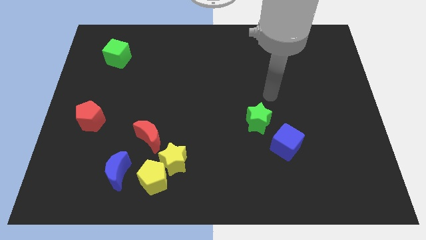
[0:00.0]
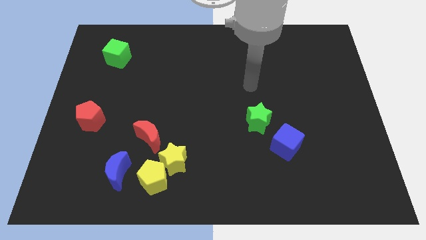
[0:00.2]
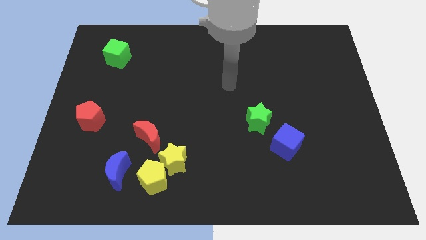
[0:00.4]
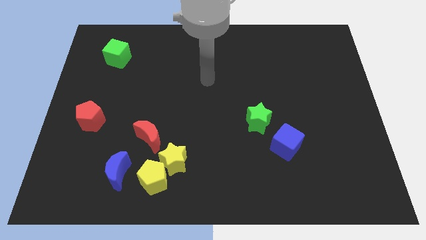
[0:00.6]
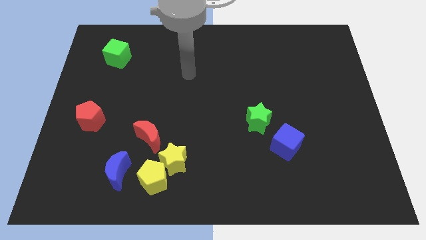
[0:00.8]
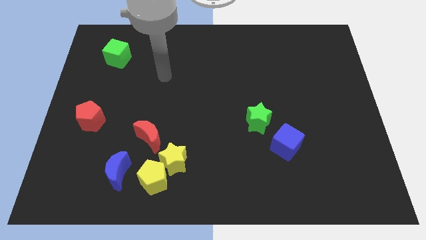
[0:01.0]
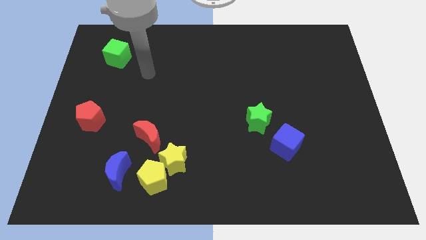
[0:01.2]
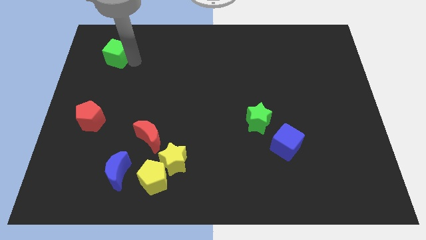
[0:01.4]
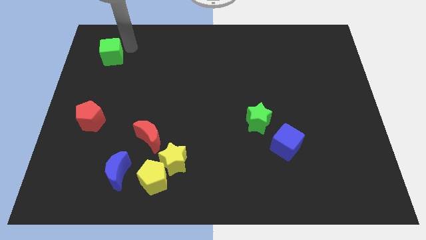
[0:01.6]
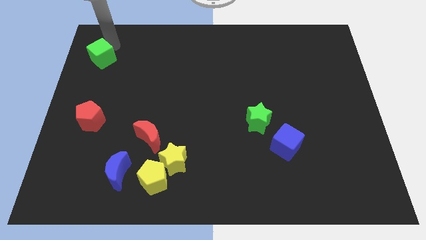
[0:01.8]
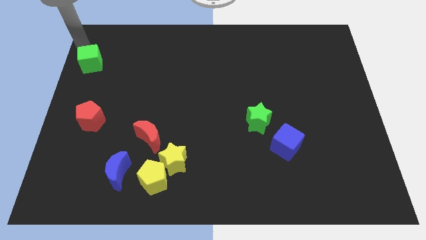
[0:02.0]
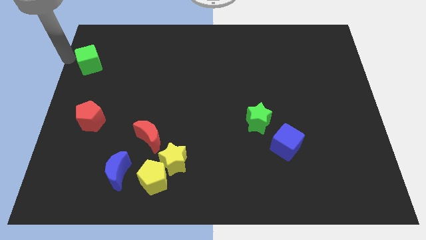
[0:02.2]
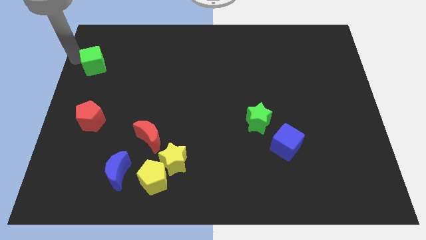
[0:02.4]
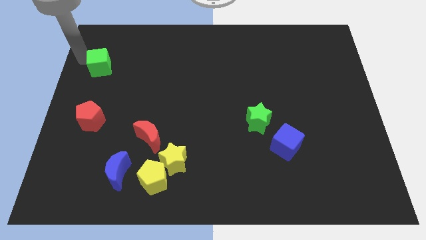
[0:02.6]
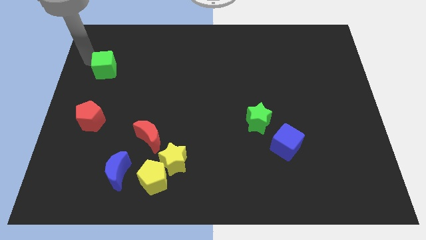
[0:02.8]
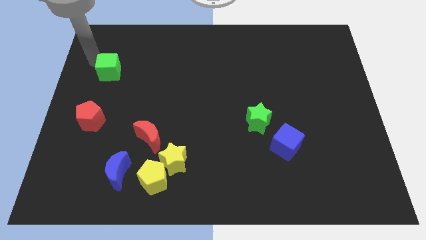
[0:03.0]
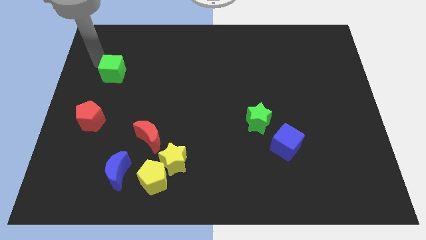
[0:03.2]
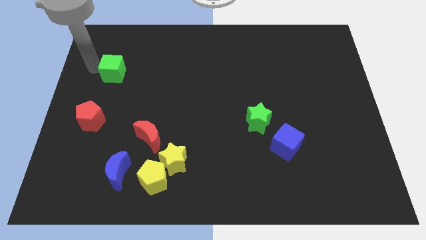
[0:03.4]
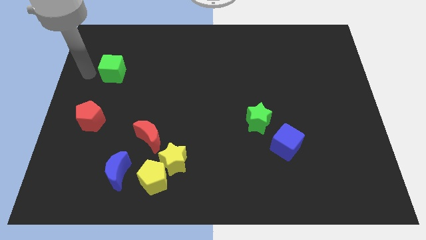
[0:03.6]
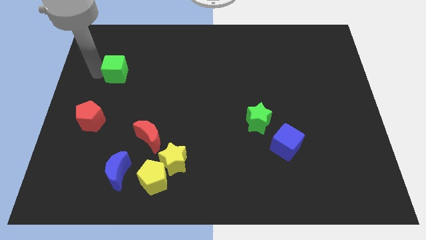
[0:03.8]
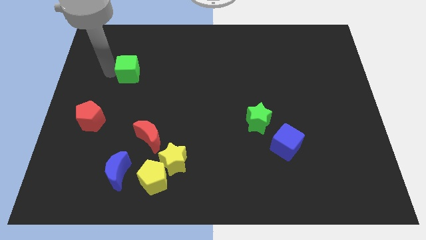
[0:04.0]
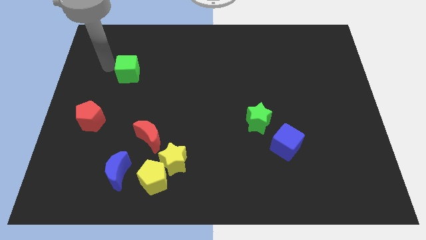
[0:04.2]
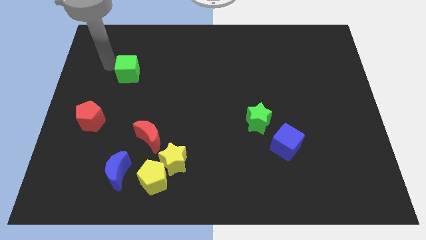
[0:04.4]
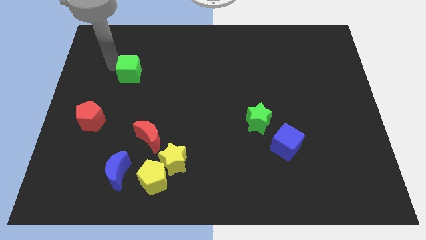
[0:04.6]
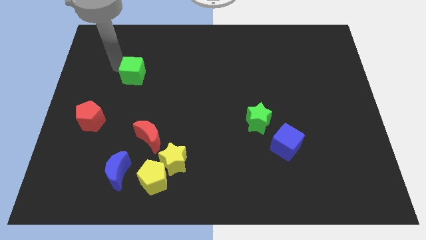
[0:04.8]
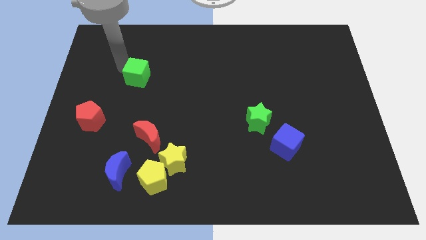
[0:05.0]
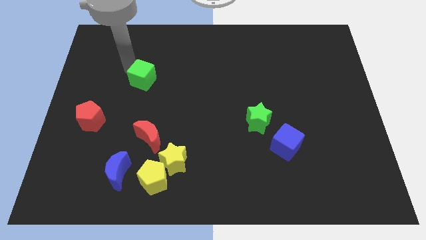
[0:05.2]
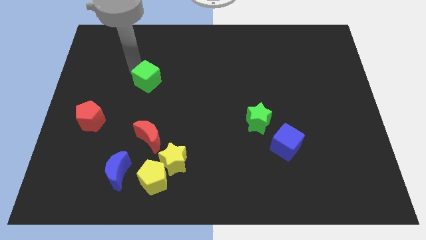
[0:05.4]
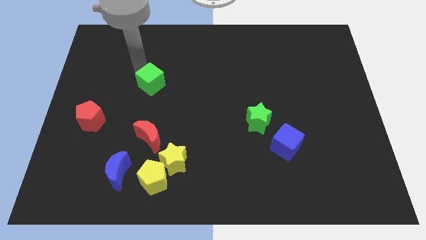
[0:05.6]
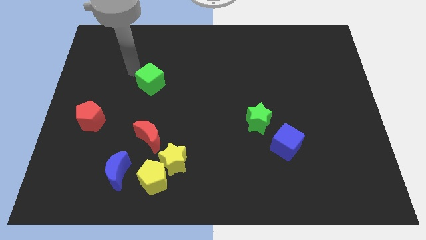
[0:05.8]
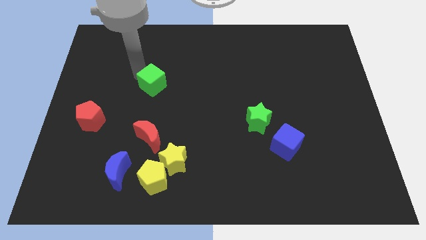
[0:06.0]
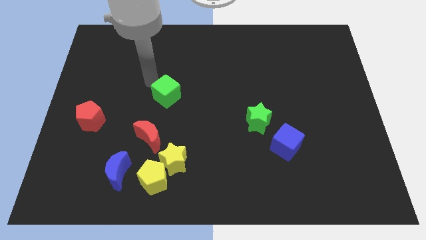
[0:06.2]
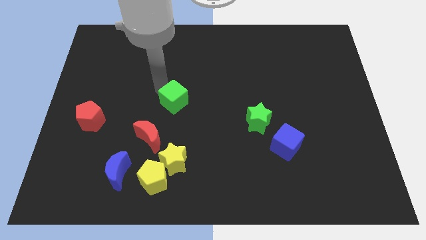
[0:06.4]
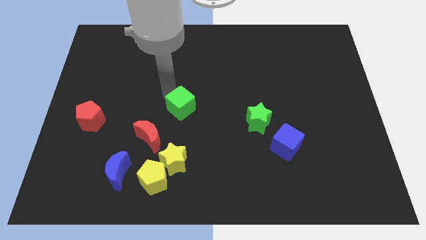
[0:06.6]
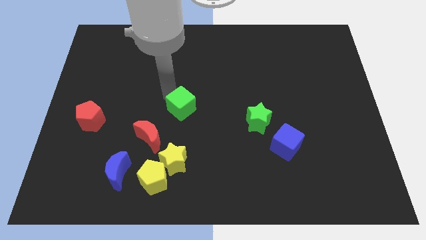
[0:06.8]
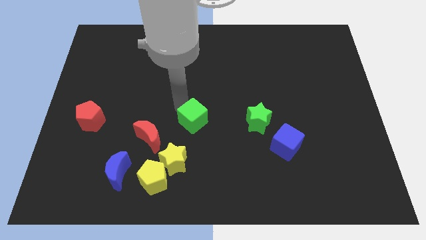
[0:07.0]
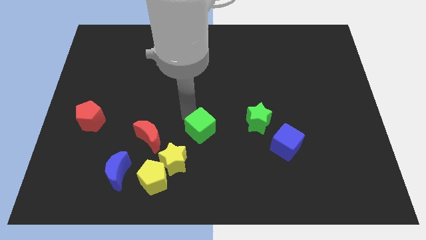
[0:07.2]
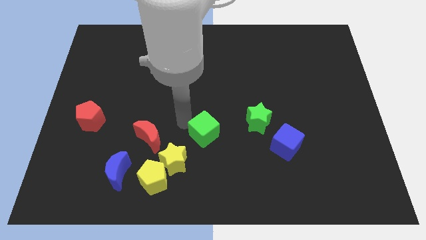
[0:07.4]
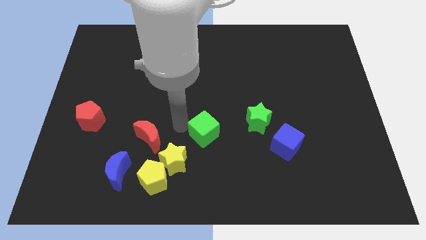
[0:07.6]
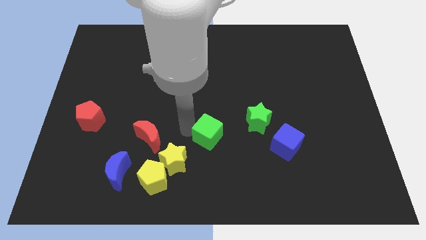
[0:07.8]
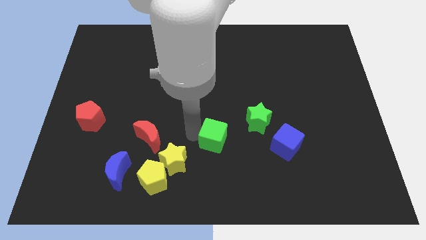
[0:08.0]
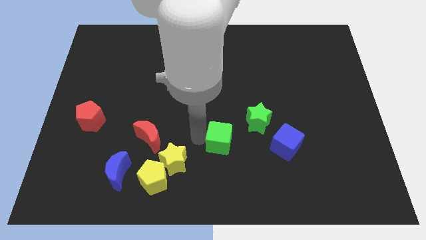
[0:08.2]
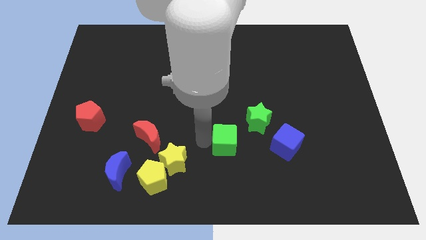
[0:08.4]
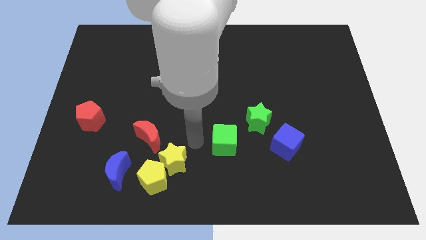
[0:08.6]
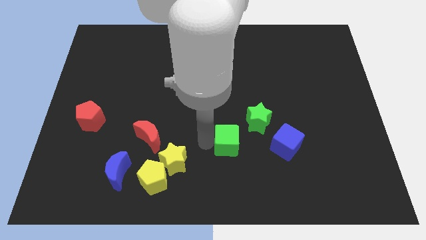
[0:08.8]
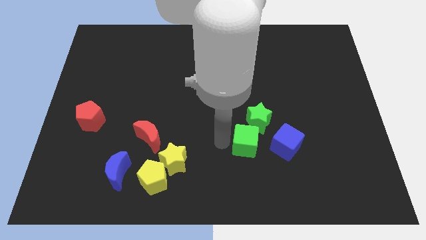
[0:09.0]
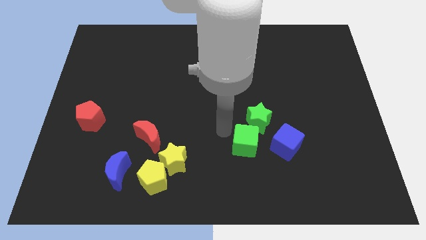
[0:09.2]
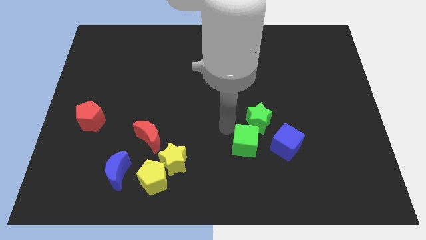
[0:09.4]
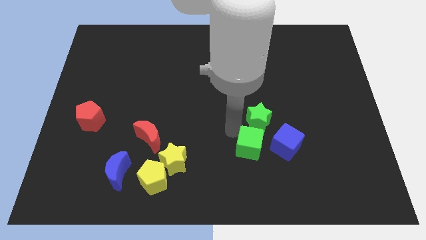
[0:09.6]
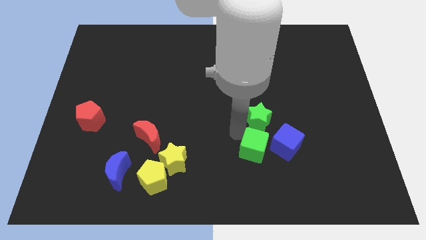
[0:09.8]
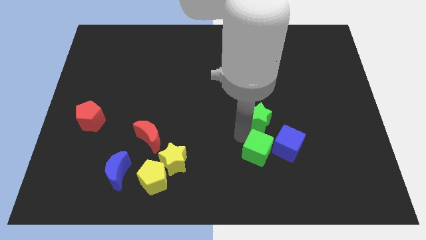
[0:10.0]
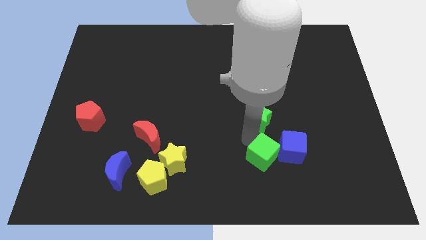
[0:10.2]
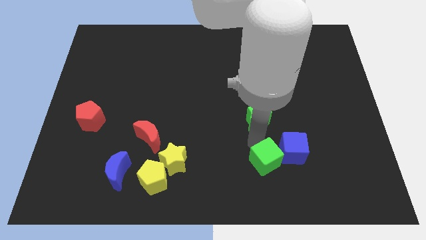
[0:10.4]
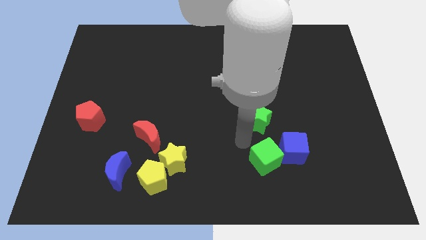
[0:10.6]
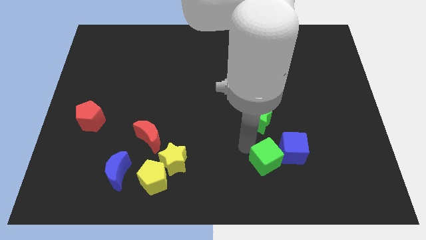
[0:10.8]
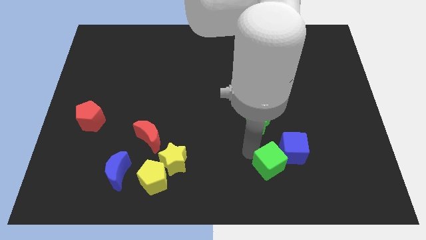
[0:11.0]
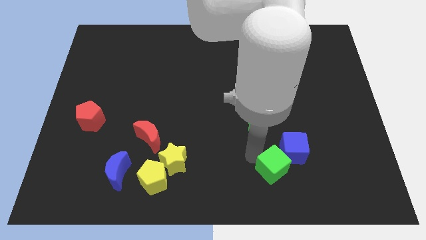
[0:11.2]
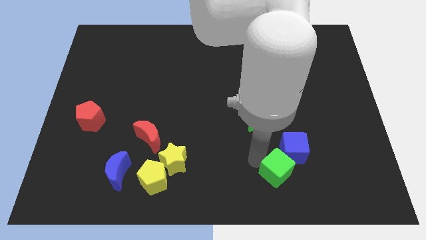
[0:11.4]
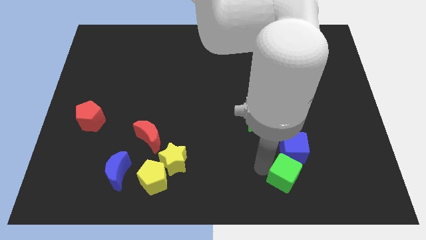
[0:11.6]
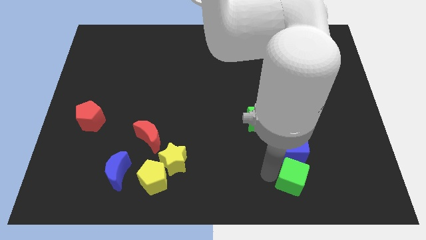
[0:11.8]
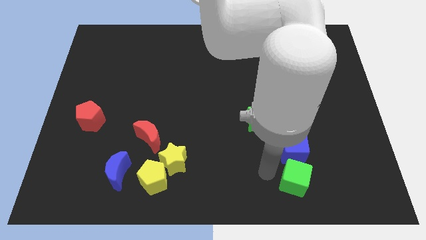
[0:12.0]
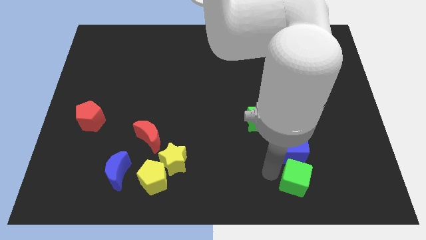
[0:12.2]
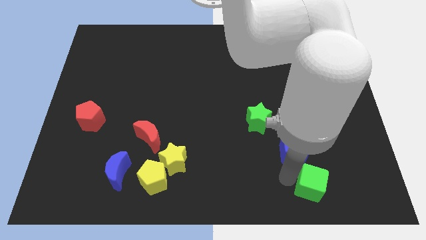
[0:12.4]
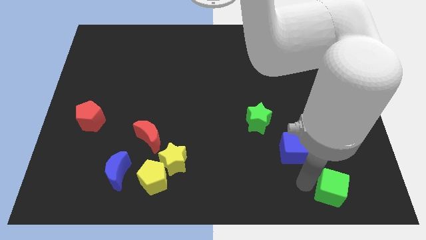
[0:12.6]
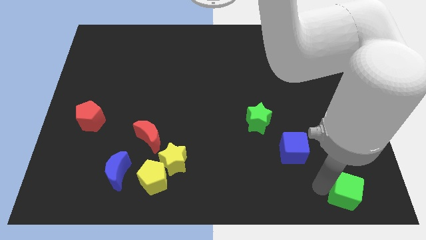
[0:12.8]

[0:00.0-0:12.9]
move the green cube to the bottom right

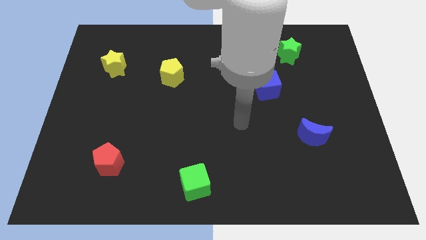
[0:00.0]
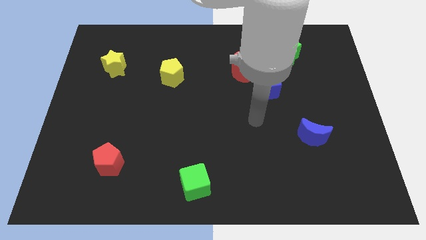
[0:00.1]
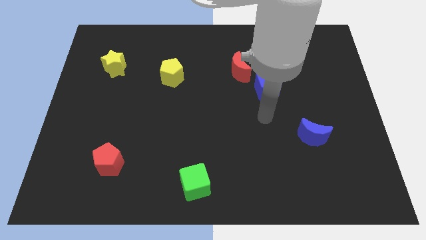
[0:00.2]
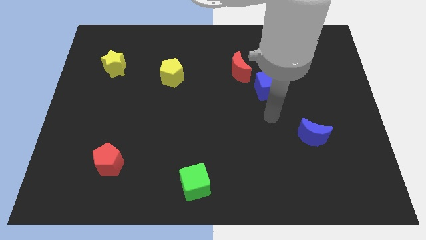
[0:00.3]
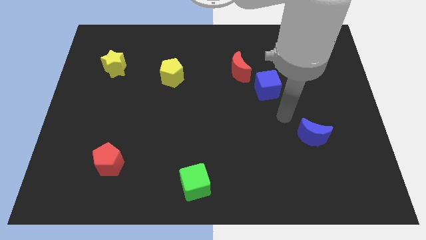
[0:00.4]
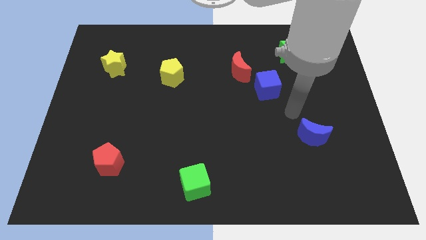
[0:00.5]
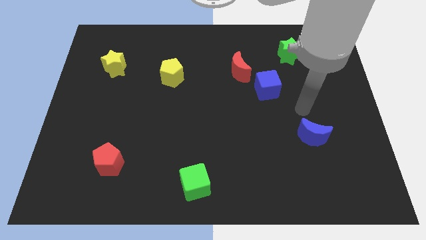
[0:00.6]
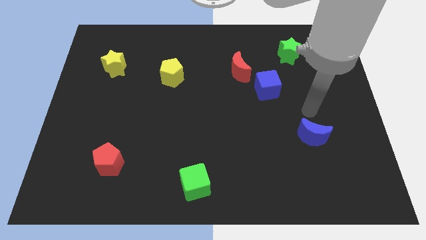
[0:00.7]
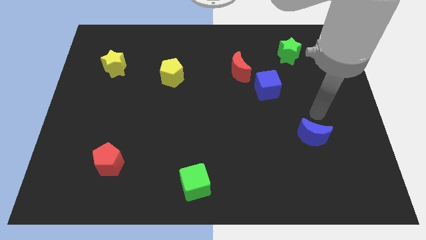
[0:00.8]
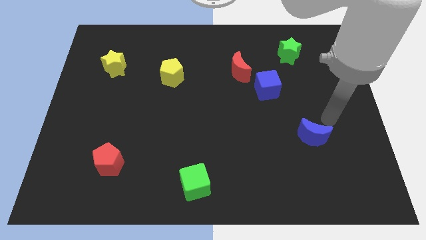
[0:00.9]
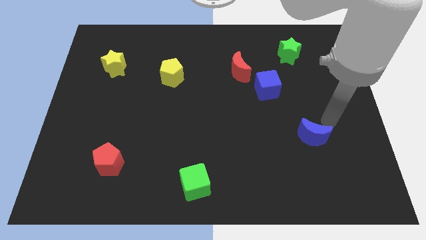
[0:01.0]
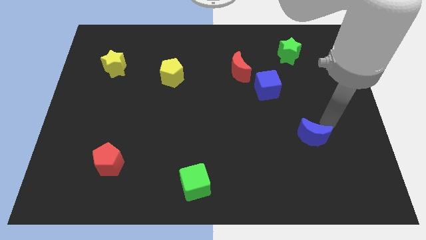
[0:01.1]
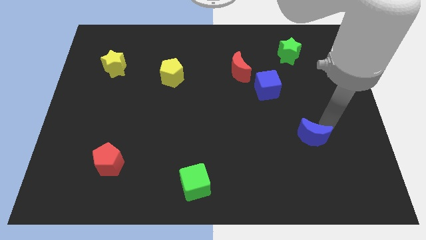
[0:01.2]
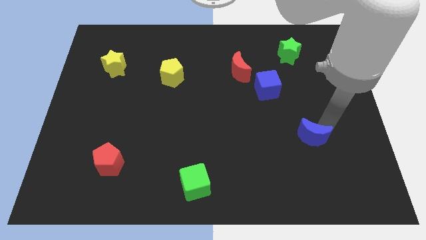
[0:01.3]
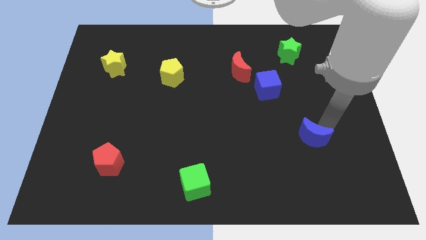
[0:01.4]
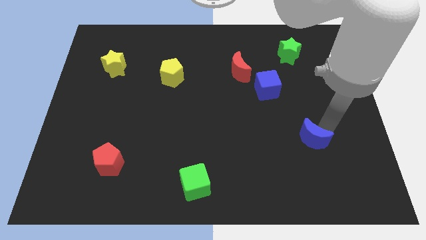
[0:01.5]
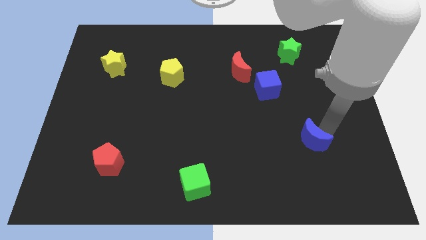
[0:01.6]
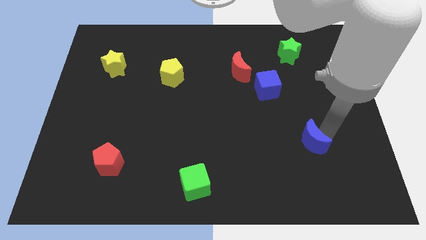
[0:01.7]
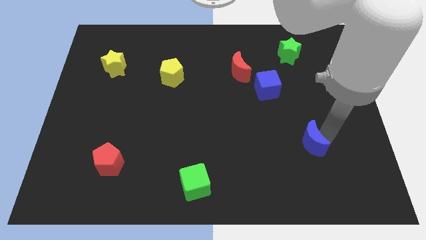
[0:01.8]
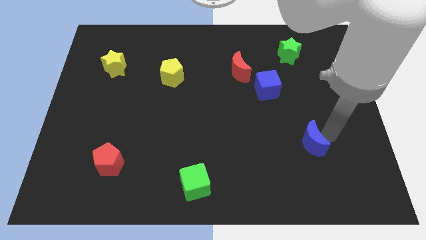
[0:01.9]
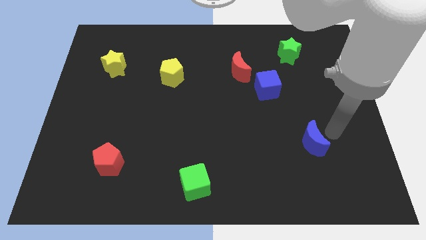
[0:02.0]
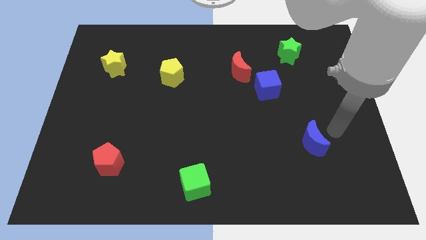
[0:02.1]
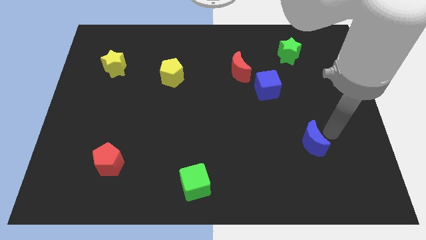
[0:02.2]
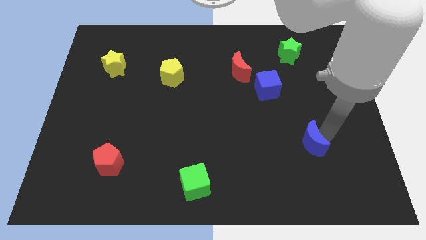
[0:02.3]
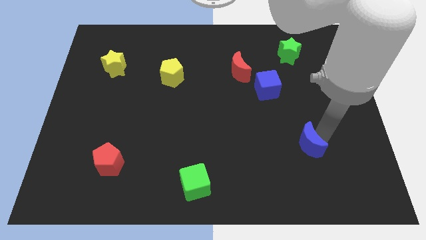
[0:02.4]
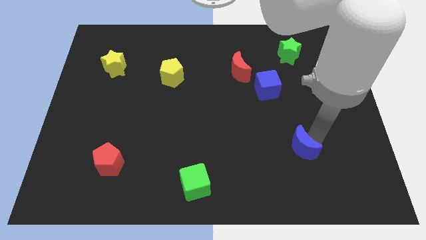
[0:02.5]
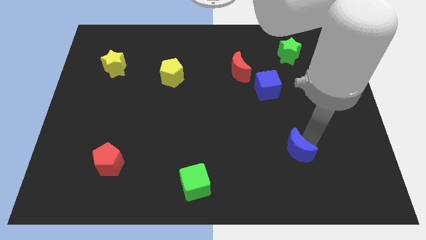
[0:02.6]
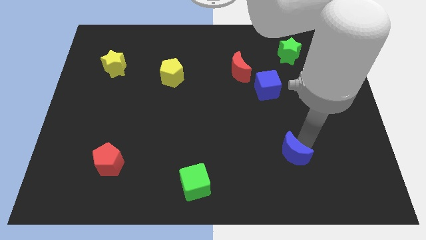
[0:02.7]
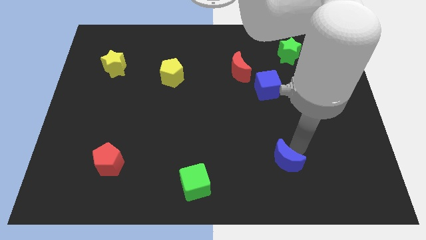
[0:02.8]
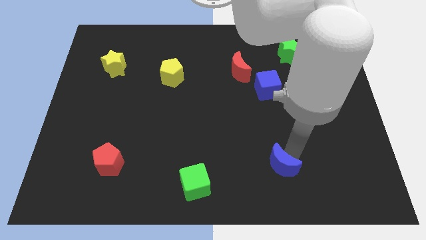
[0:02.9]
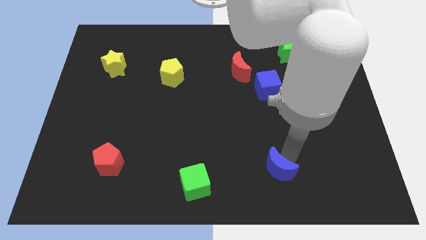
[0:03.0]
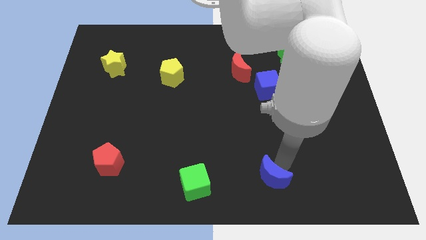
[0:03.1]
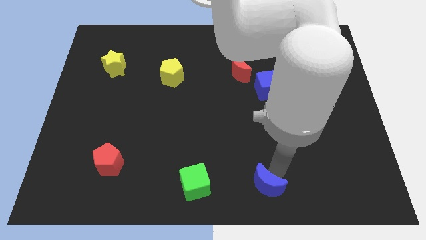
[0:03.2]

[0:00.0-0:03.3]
slide the blue moon to the bottom
